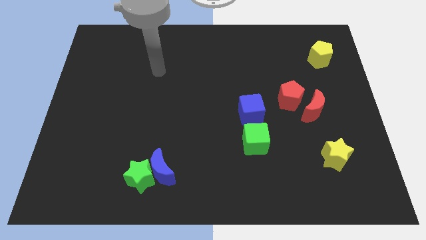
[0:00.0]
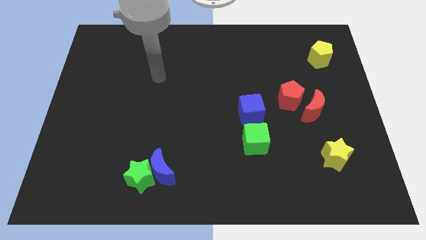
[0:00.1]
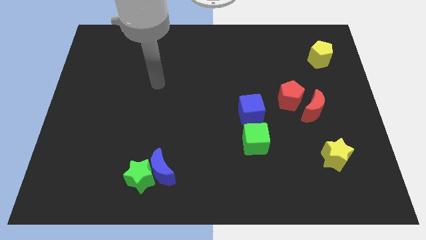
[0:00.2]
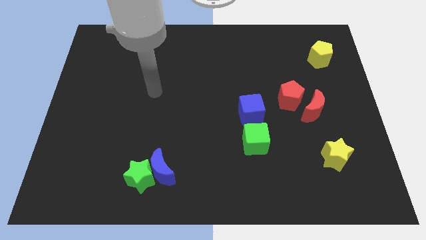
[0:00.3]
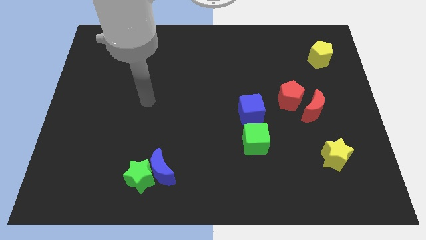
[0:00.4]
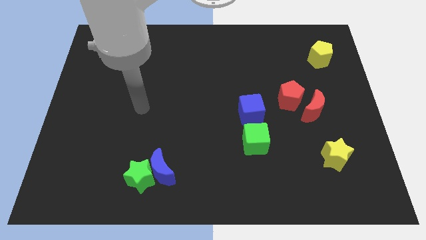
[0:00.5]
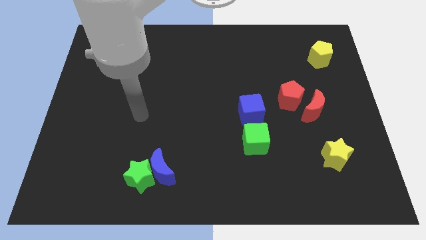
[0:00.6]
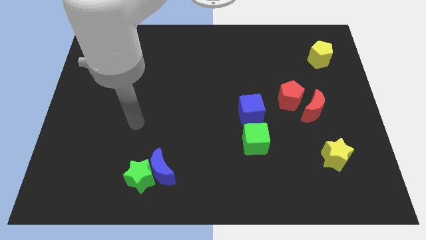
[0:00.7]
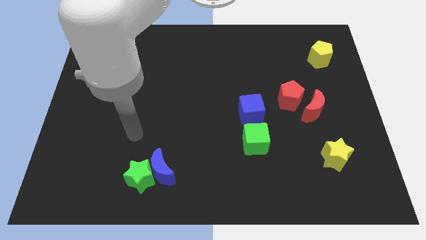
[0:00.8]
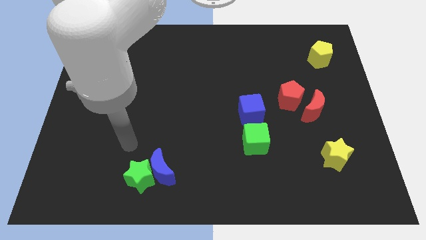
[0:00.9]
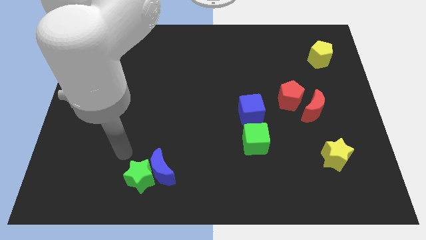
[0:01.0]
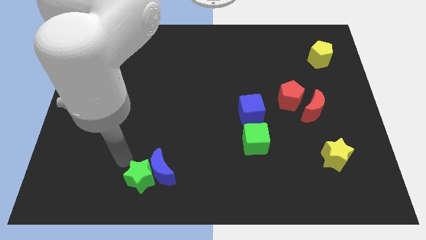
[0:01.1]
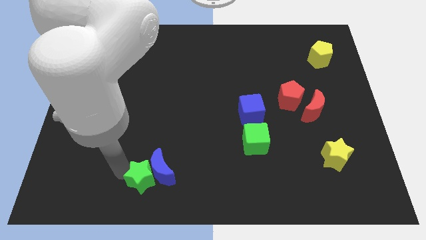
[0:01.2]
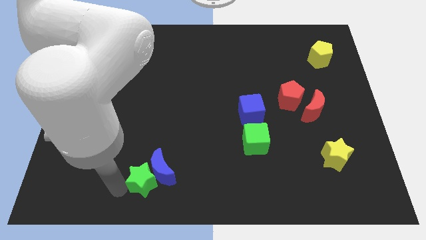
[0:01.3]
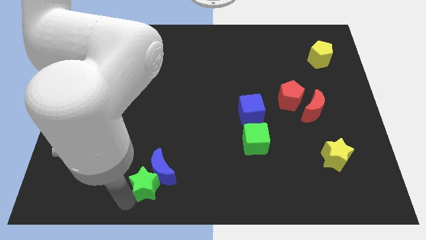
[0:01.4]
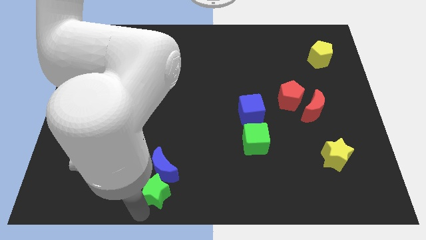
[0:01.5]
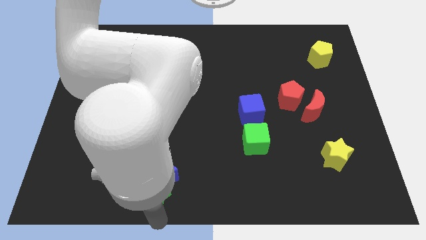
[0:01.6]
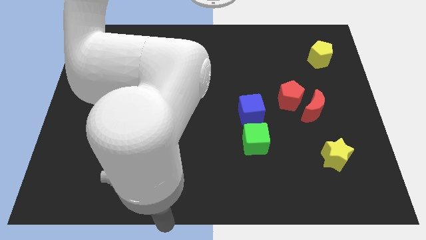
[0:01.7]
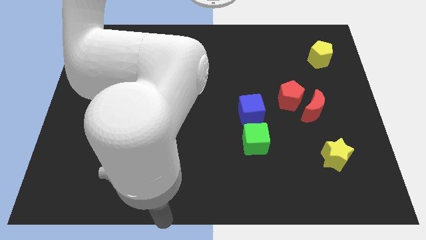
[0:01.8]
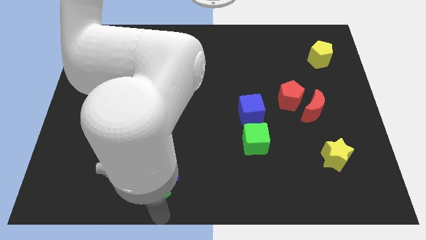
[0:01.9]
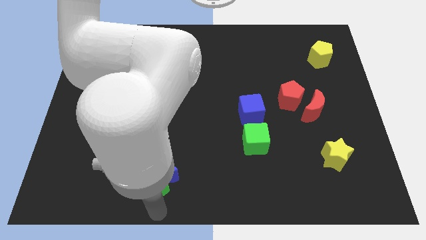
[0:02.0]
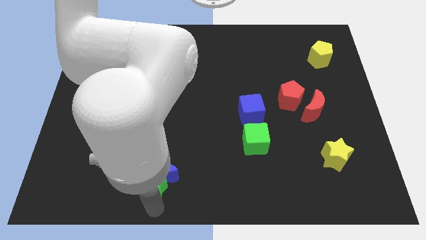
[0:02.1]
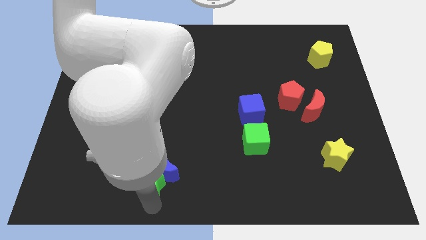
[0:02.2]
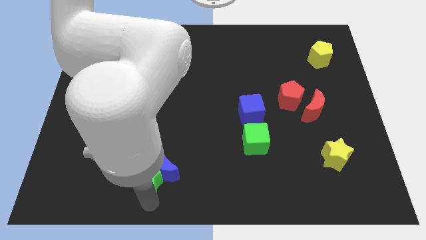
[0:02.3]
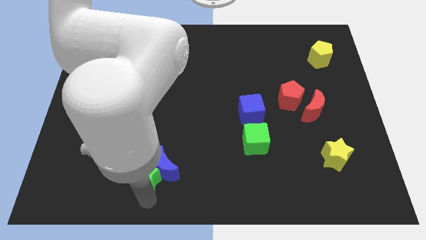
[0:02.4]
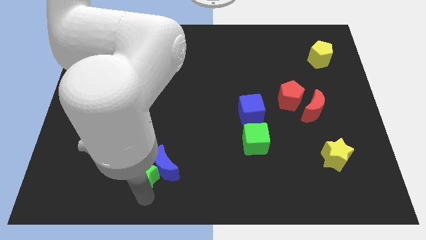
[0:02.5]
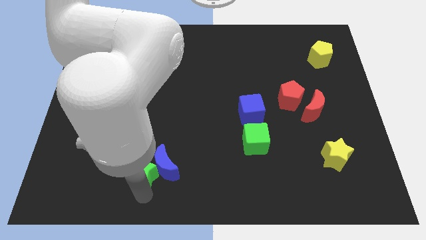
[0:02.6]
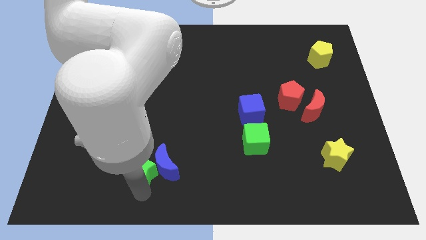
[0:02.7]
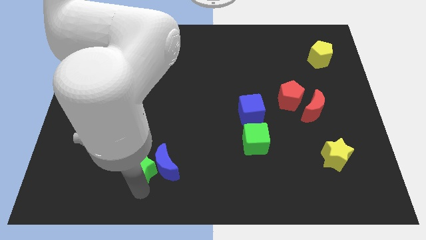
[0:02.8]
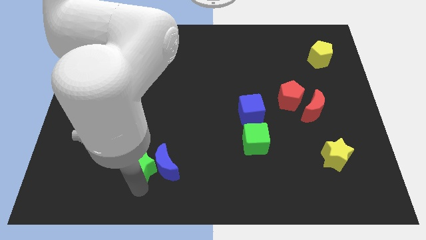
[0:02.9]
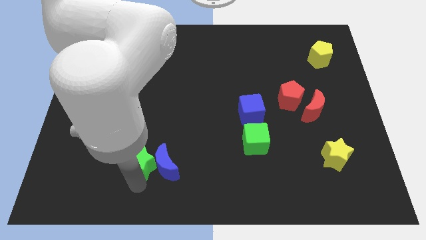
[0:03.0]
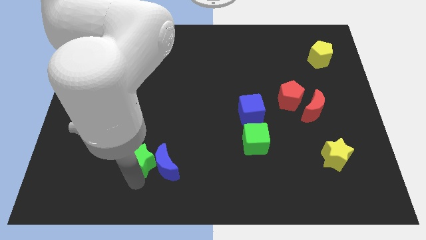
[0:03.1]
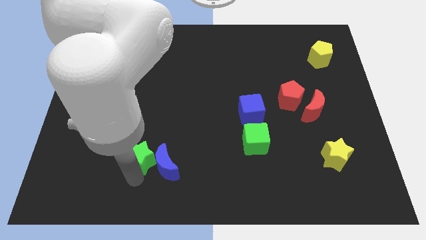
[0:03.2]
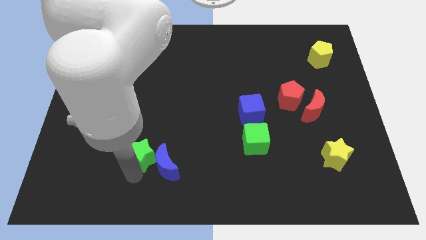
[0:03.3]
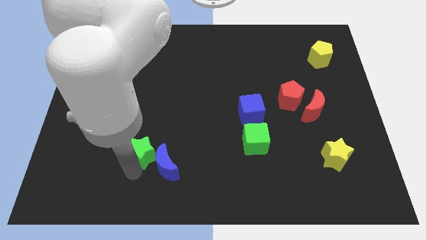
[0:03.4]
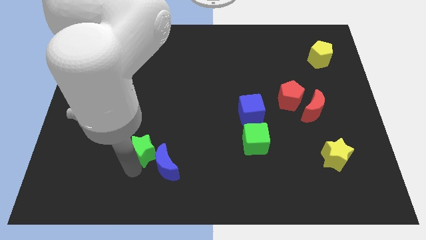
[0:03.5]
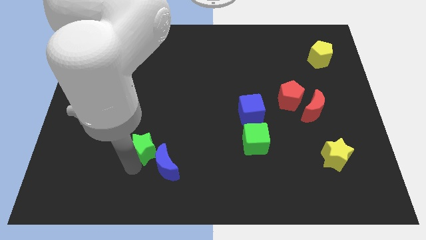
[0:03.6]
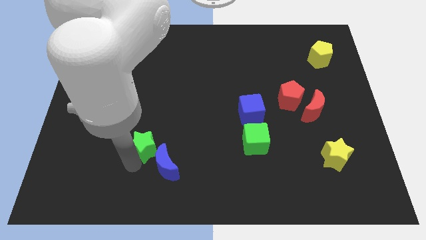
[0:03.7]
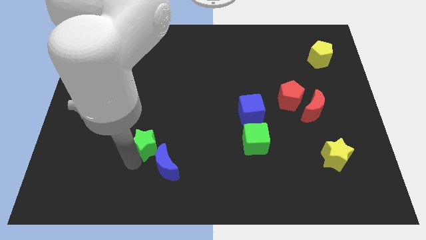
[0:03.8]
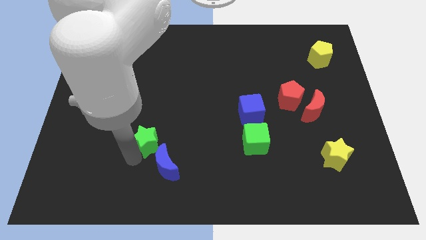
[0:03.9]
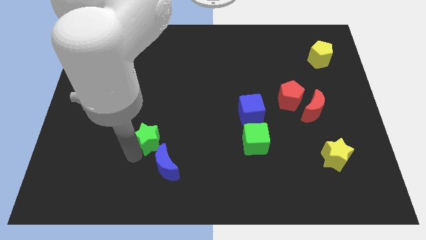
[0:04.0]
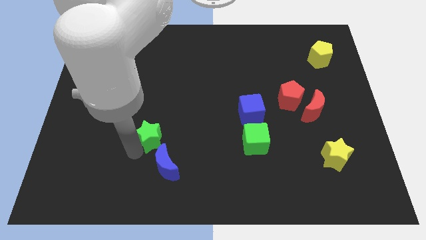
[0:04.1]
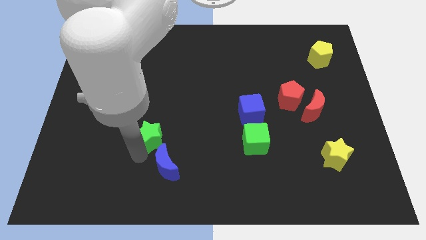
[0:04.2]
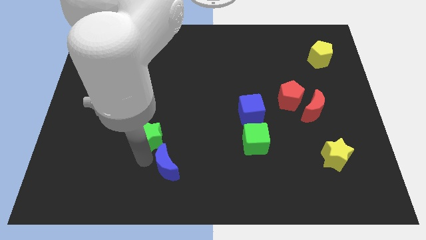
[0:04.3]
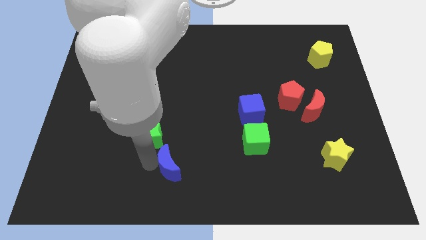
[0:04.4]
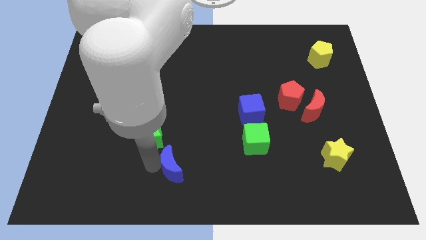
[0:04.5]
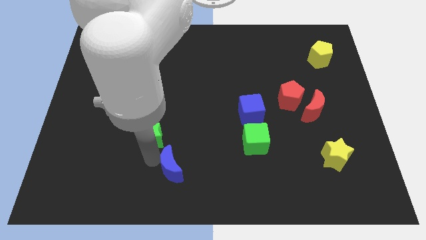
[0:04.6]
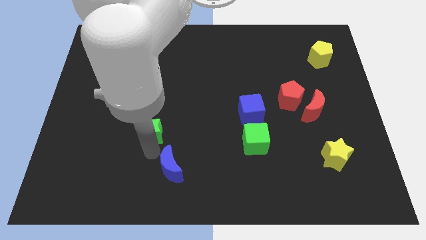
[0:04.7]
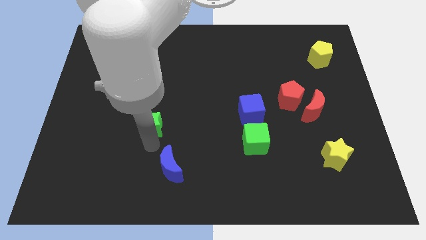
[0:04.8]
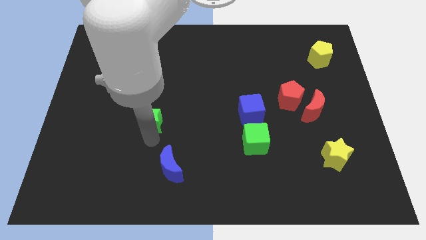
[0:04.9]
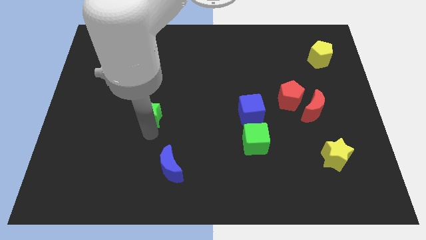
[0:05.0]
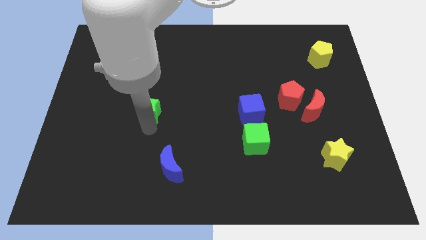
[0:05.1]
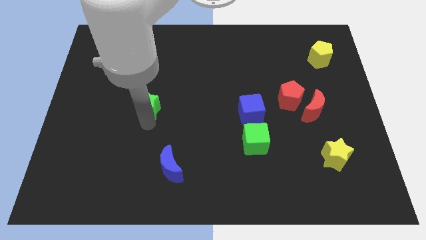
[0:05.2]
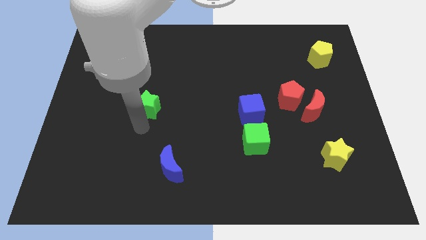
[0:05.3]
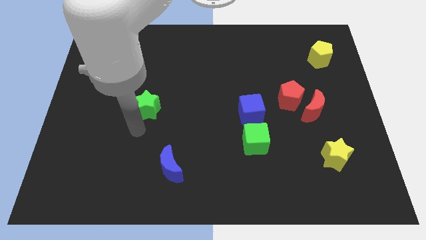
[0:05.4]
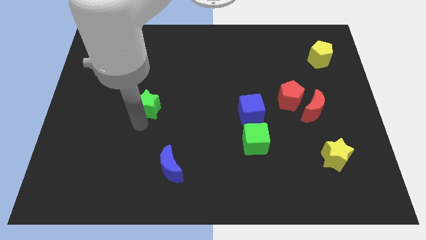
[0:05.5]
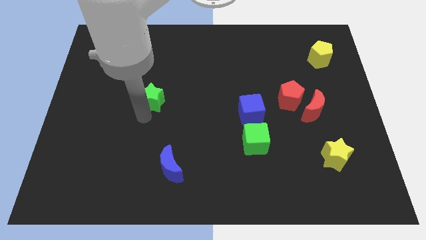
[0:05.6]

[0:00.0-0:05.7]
slide the green star upwards

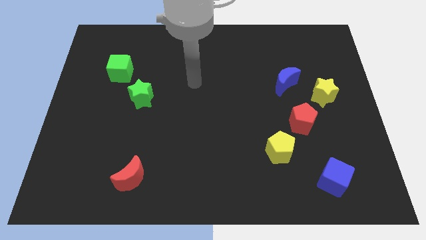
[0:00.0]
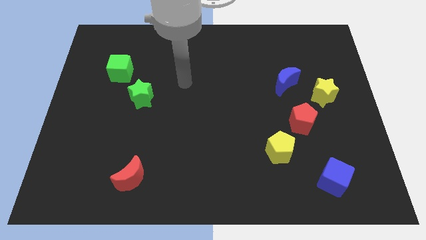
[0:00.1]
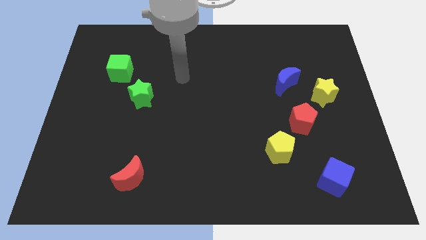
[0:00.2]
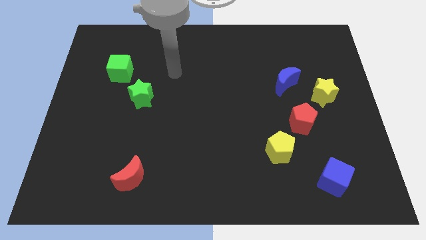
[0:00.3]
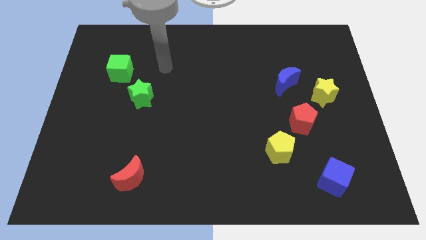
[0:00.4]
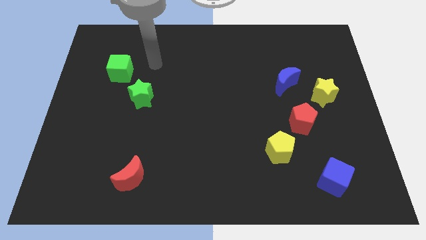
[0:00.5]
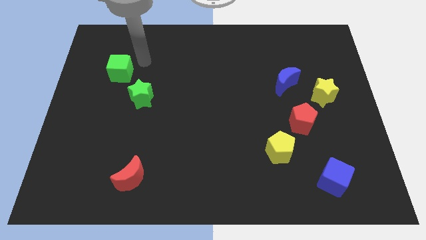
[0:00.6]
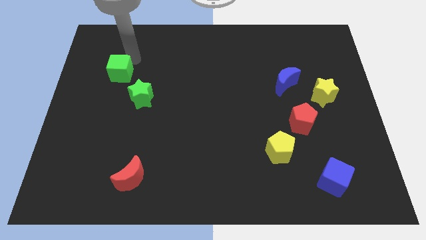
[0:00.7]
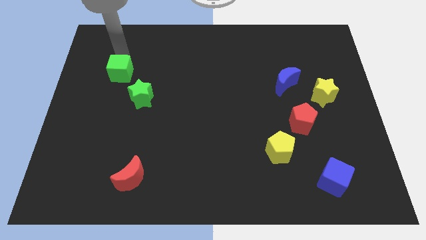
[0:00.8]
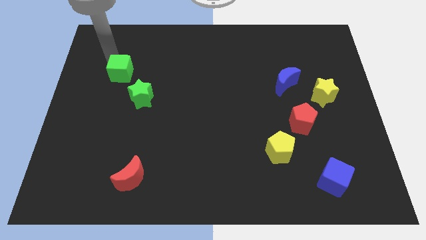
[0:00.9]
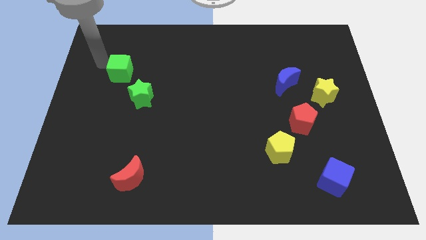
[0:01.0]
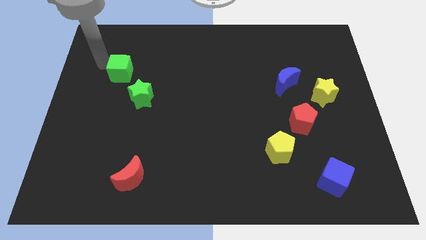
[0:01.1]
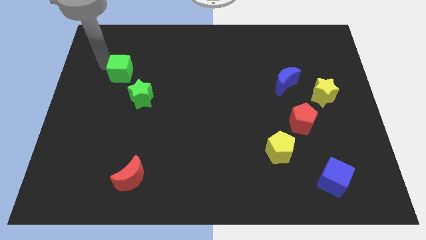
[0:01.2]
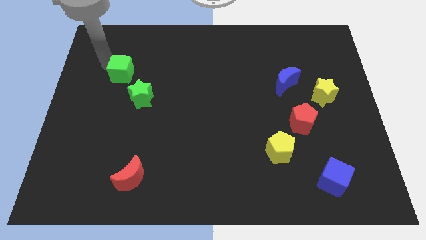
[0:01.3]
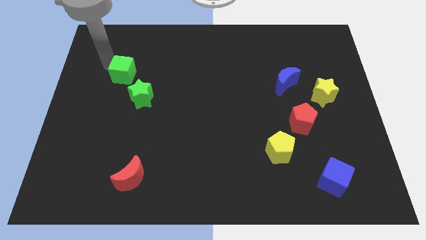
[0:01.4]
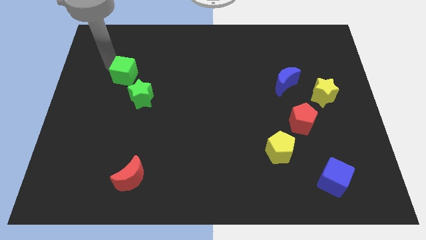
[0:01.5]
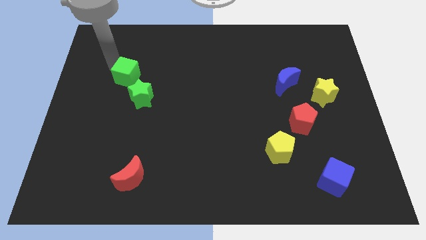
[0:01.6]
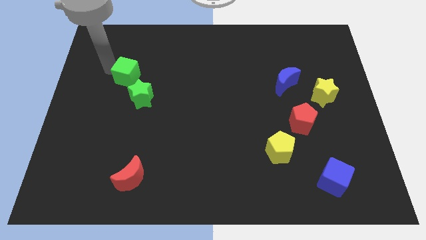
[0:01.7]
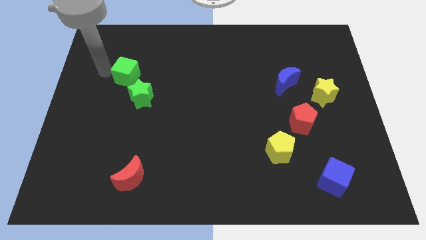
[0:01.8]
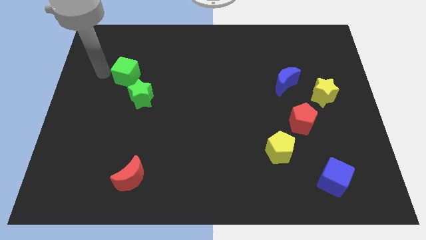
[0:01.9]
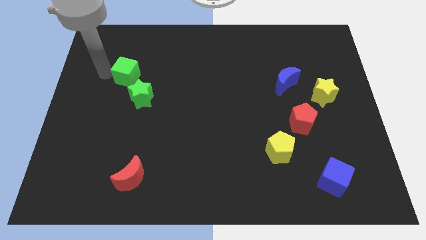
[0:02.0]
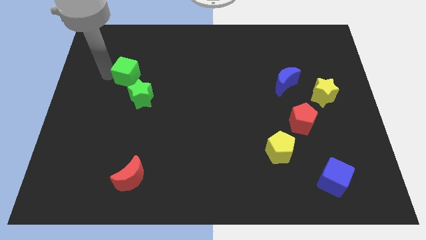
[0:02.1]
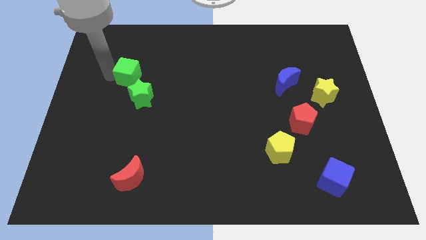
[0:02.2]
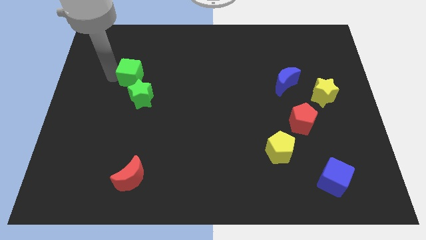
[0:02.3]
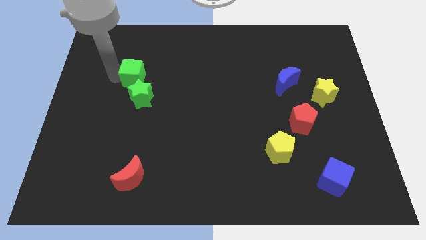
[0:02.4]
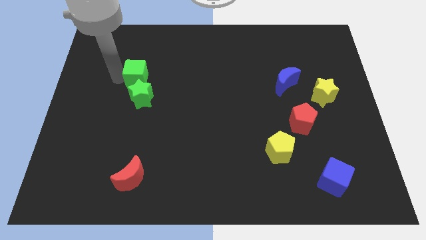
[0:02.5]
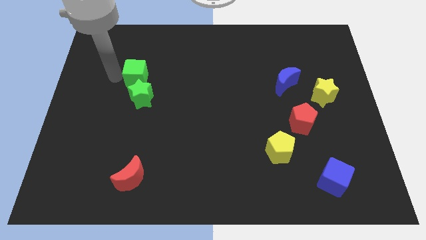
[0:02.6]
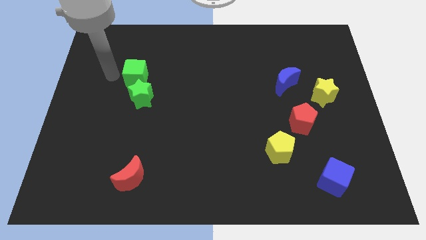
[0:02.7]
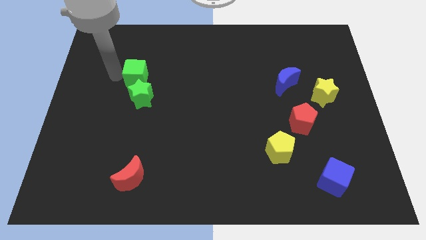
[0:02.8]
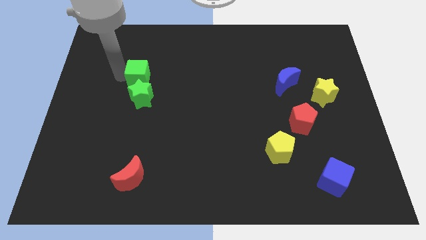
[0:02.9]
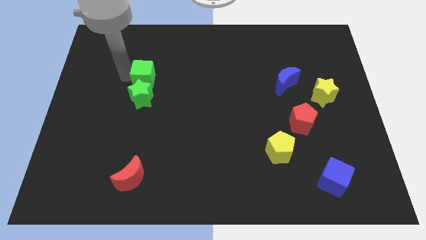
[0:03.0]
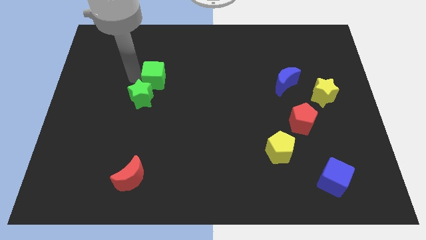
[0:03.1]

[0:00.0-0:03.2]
slightly push the green cube right
